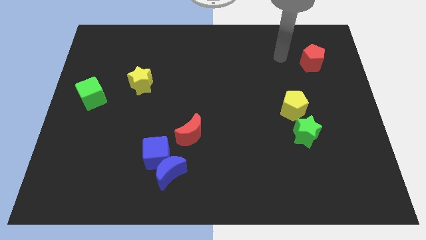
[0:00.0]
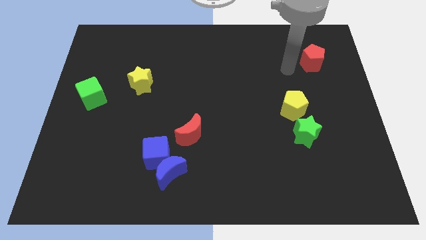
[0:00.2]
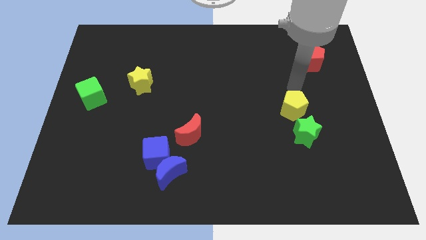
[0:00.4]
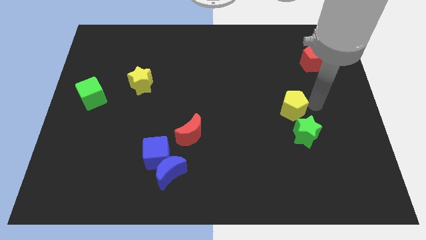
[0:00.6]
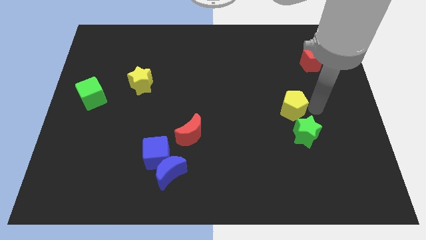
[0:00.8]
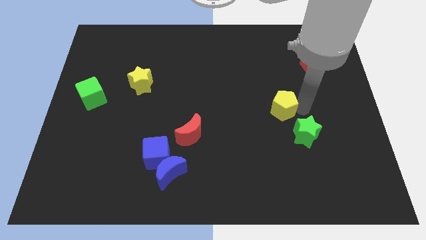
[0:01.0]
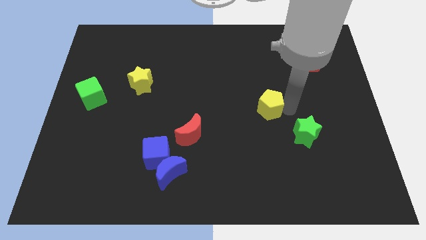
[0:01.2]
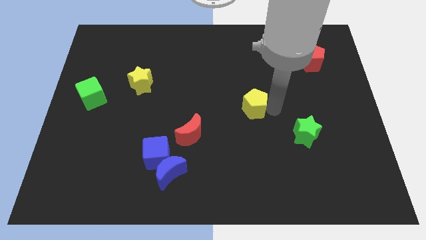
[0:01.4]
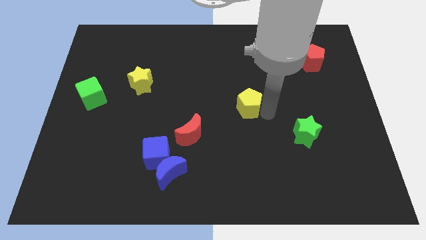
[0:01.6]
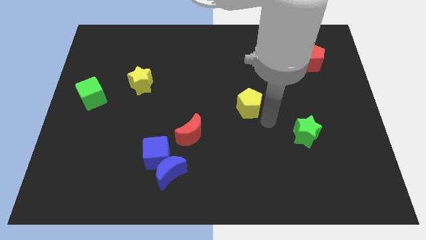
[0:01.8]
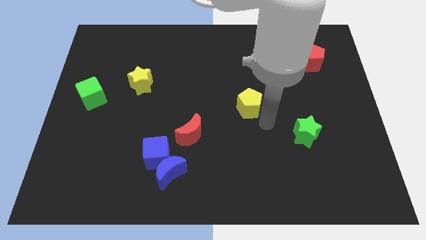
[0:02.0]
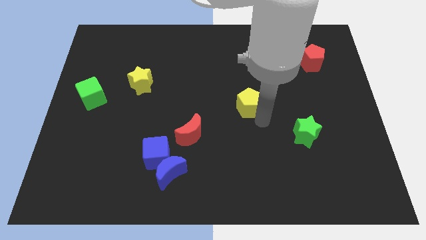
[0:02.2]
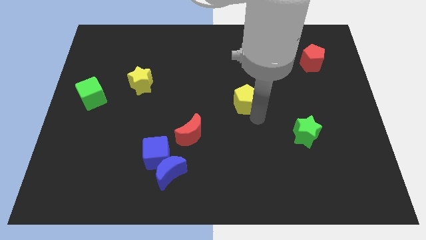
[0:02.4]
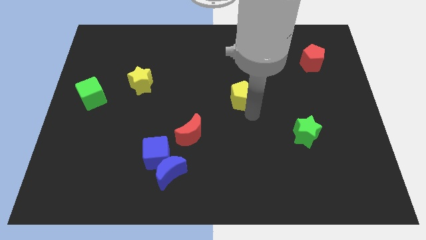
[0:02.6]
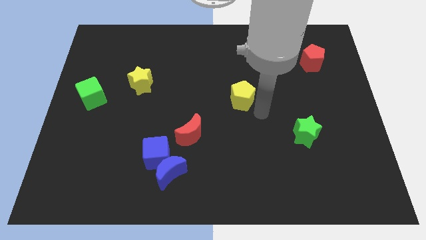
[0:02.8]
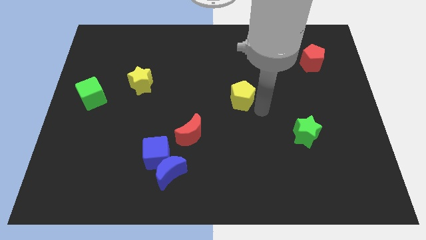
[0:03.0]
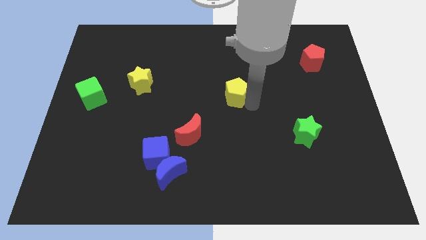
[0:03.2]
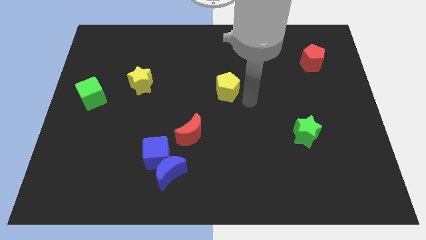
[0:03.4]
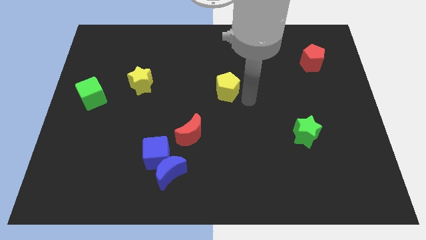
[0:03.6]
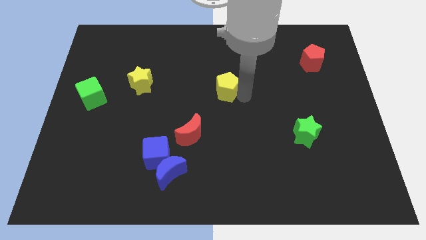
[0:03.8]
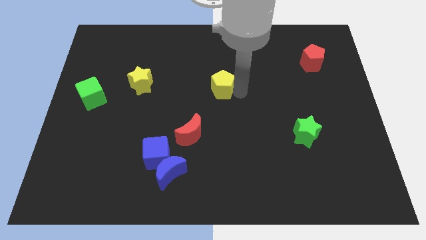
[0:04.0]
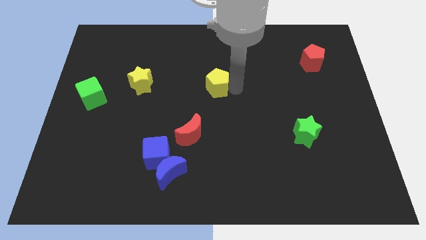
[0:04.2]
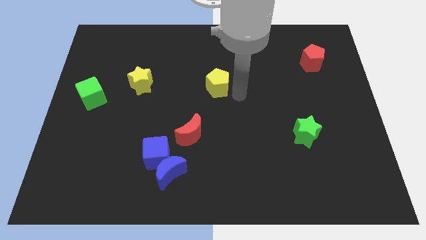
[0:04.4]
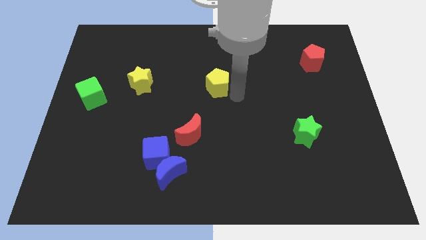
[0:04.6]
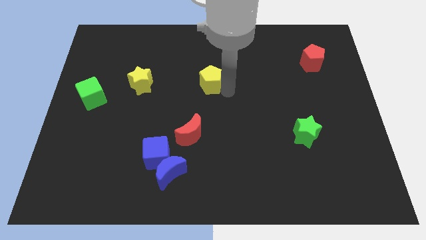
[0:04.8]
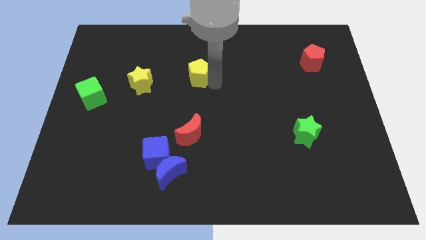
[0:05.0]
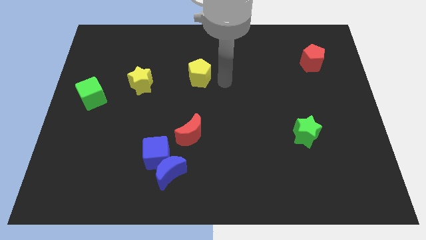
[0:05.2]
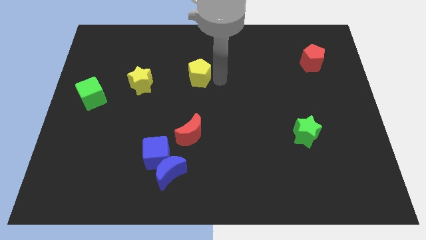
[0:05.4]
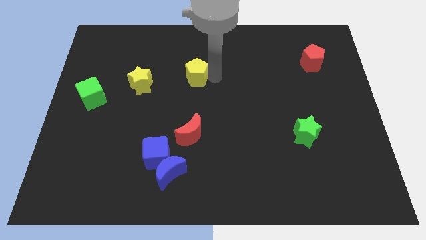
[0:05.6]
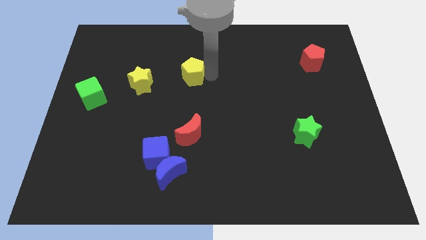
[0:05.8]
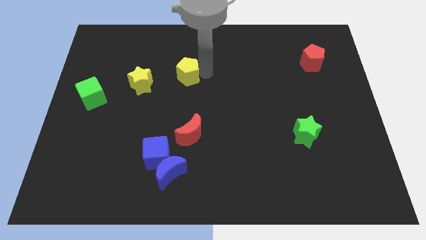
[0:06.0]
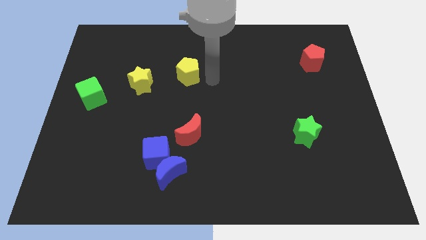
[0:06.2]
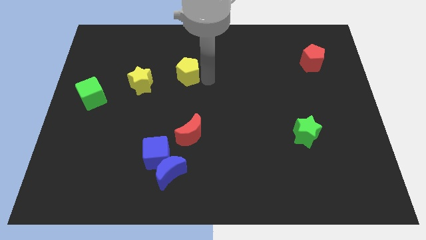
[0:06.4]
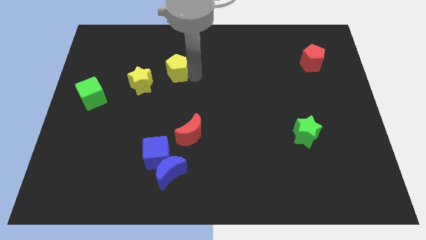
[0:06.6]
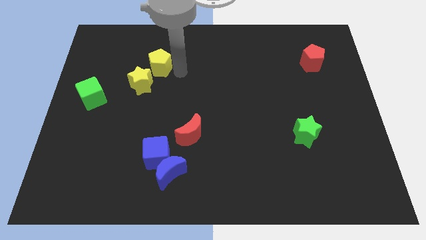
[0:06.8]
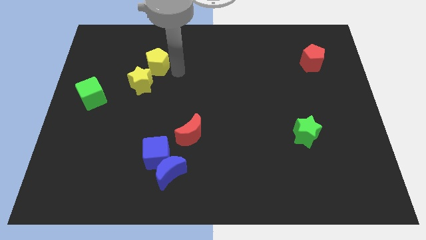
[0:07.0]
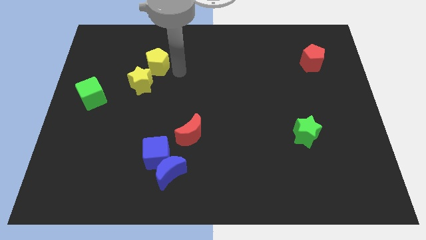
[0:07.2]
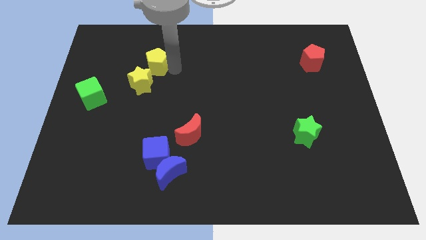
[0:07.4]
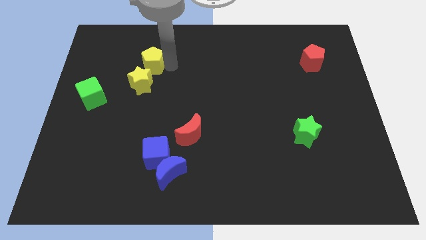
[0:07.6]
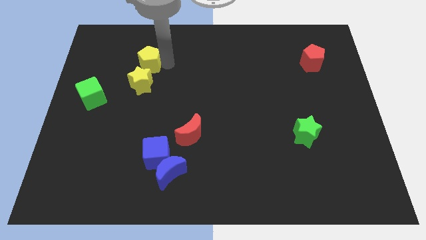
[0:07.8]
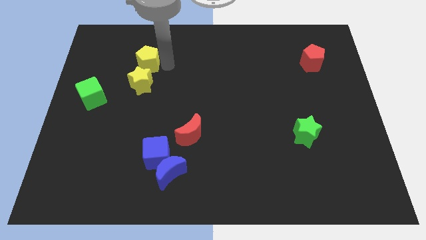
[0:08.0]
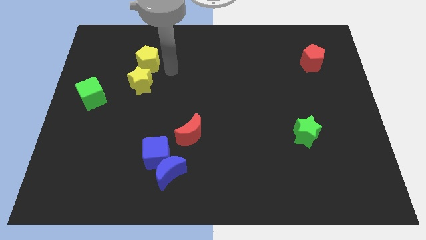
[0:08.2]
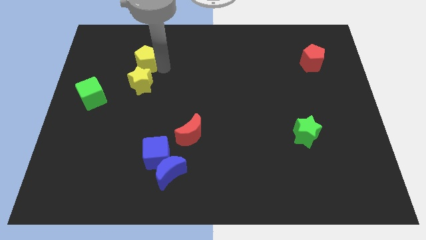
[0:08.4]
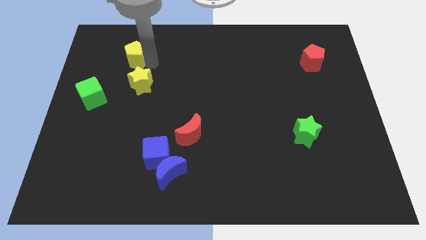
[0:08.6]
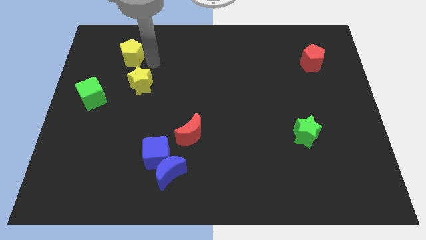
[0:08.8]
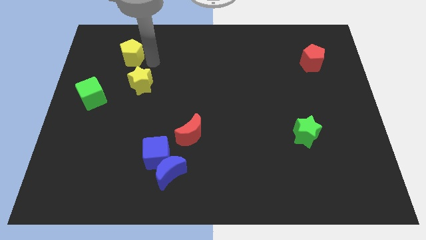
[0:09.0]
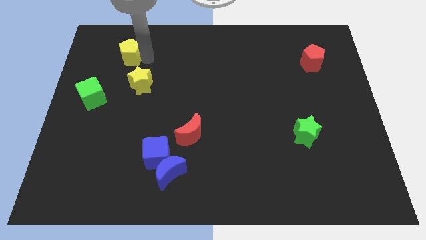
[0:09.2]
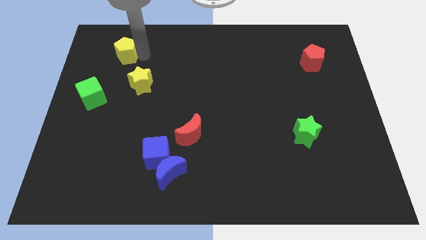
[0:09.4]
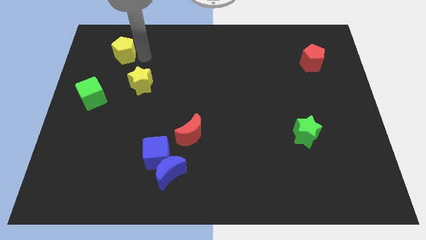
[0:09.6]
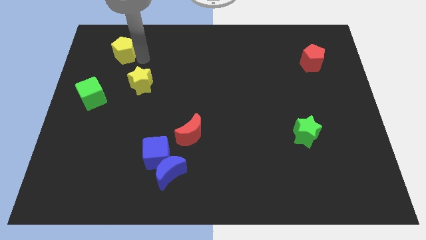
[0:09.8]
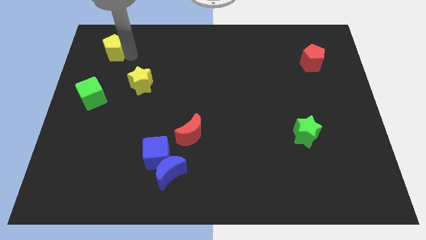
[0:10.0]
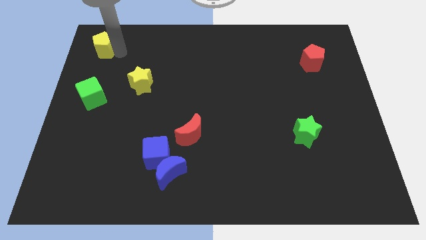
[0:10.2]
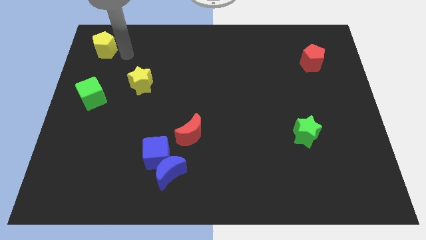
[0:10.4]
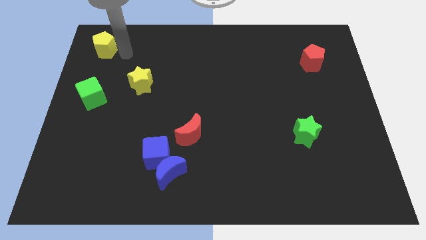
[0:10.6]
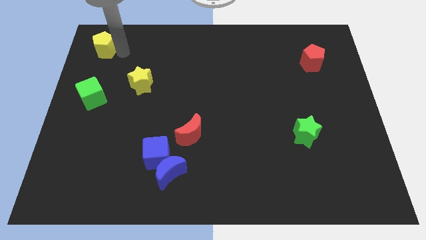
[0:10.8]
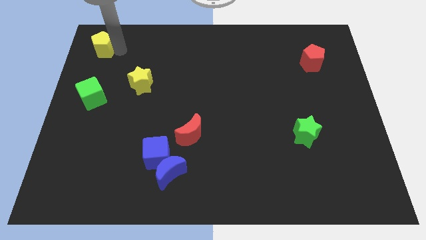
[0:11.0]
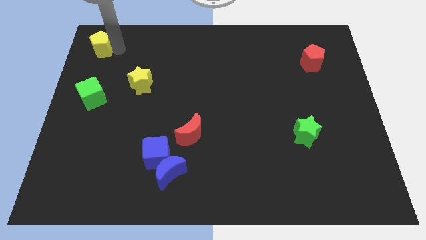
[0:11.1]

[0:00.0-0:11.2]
put the yellow pentagon to the upper left corner
